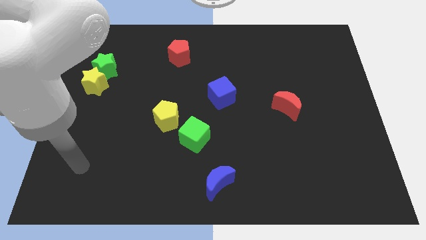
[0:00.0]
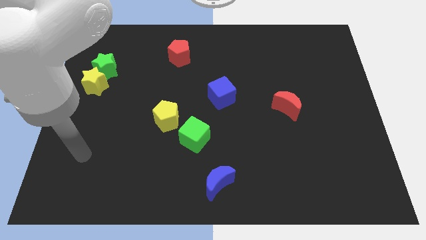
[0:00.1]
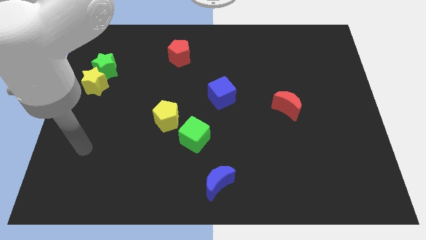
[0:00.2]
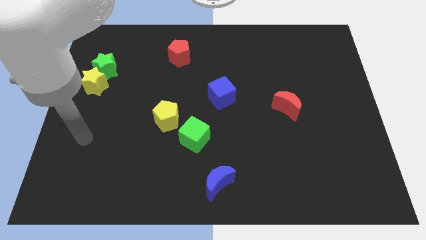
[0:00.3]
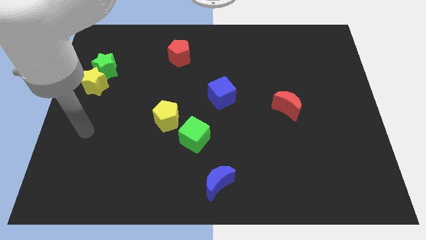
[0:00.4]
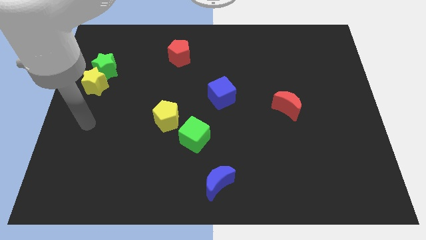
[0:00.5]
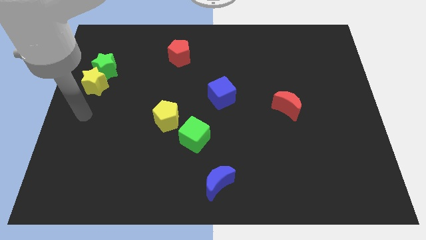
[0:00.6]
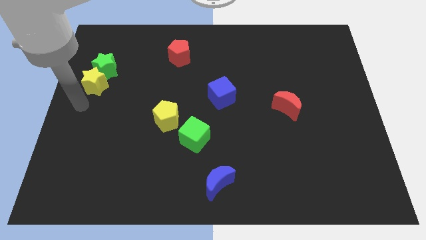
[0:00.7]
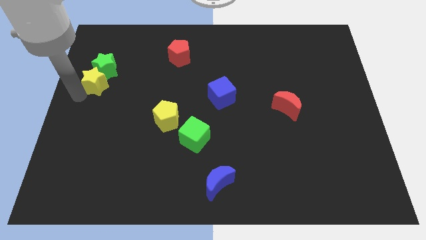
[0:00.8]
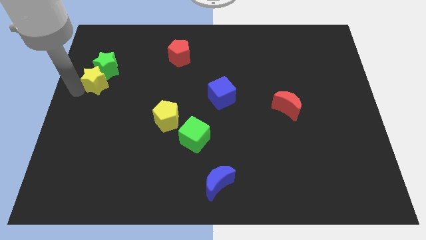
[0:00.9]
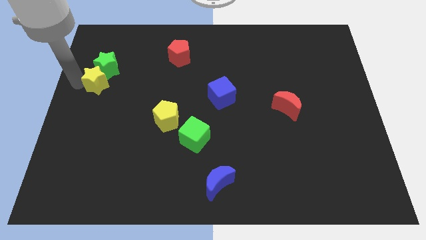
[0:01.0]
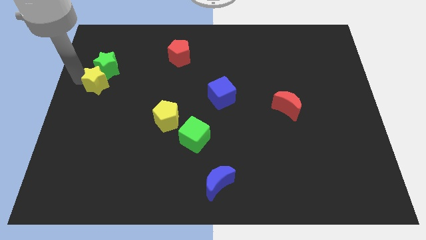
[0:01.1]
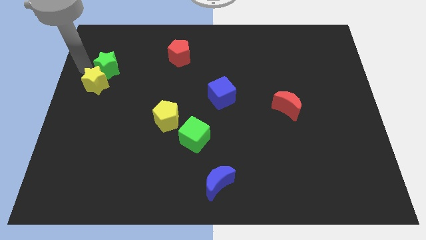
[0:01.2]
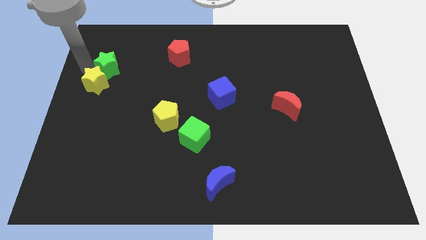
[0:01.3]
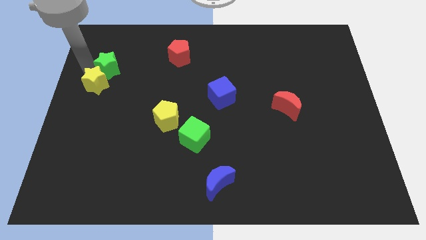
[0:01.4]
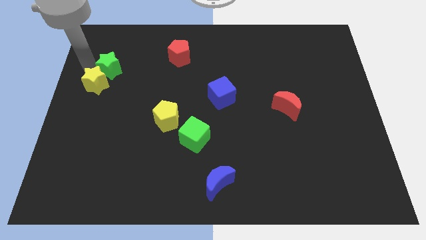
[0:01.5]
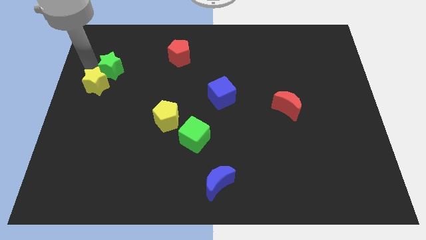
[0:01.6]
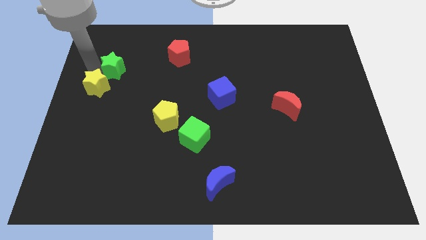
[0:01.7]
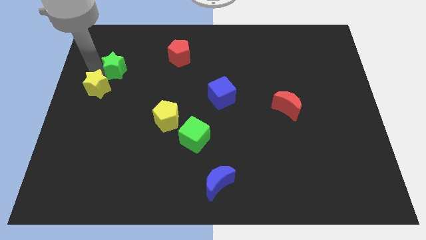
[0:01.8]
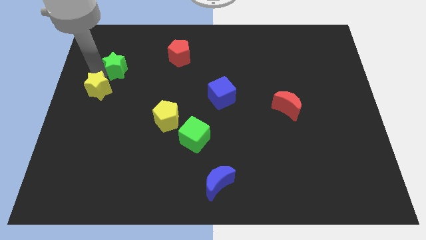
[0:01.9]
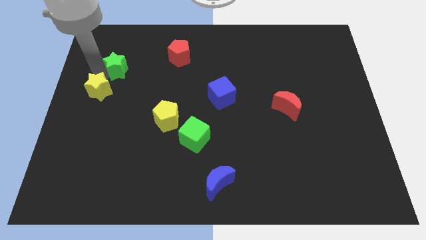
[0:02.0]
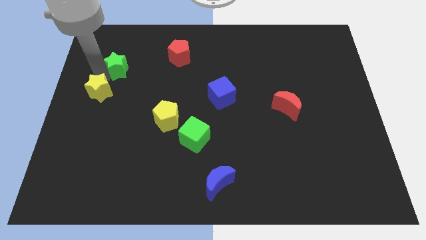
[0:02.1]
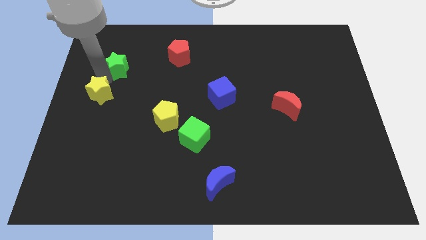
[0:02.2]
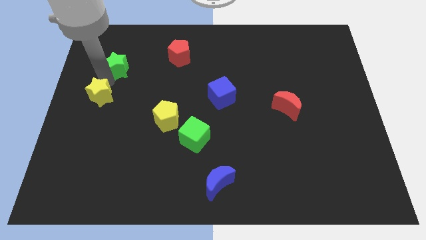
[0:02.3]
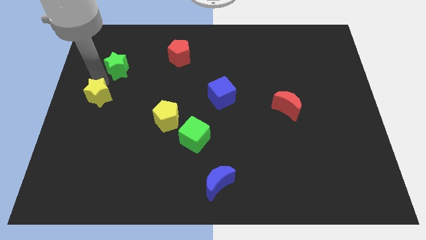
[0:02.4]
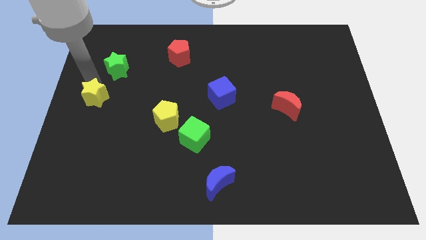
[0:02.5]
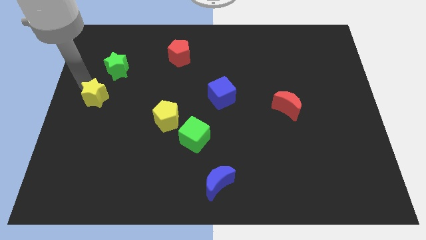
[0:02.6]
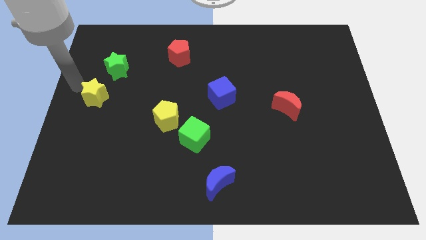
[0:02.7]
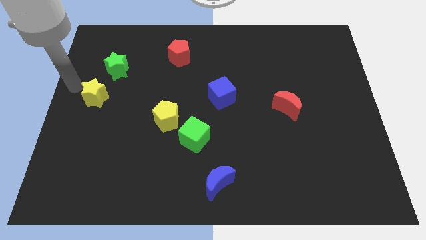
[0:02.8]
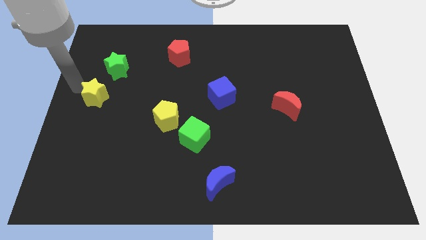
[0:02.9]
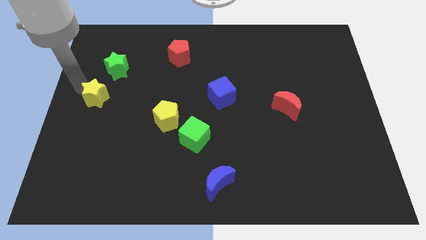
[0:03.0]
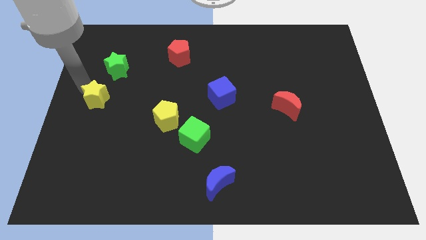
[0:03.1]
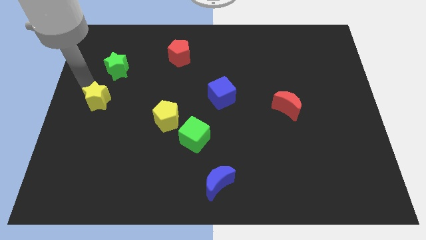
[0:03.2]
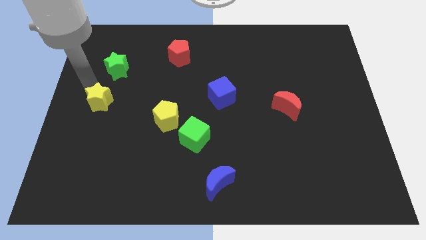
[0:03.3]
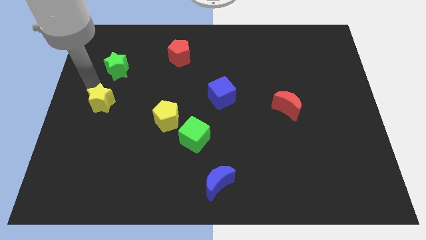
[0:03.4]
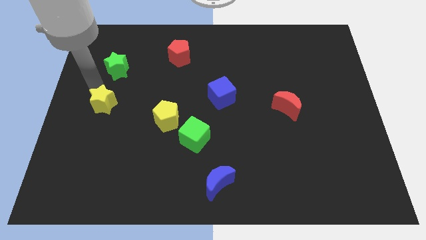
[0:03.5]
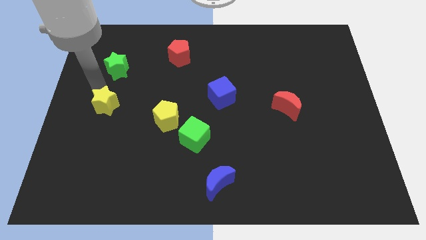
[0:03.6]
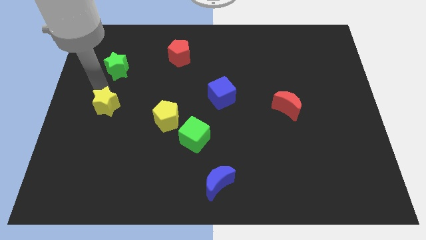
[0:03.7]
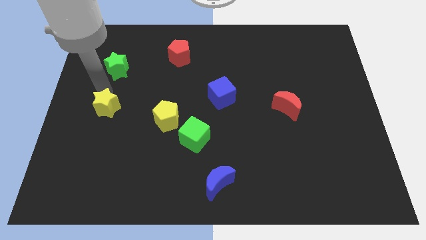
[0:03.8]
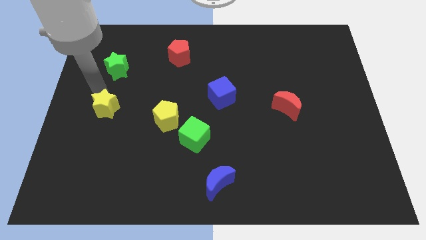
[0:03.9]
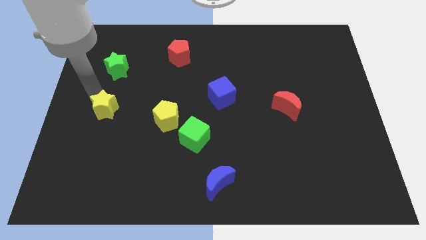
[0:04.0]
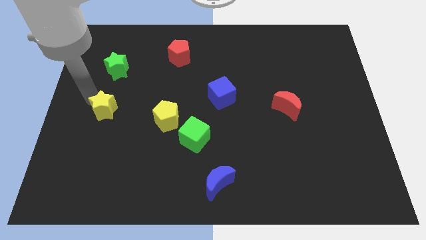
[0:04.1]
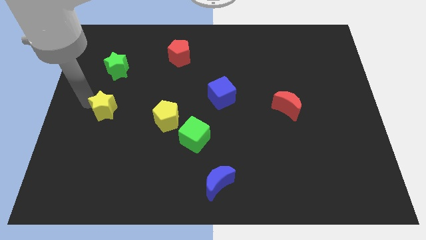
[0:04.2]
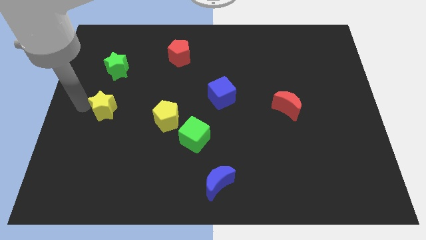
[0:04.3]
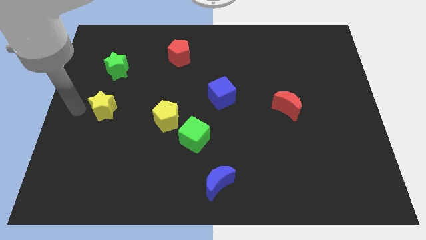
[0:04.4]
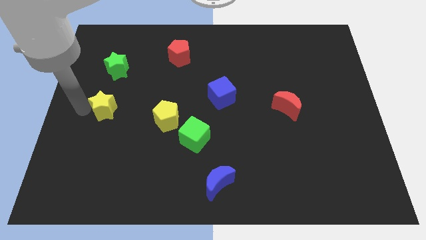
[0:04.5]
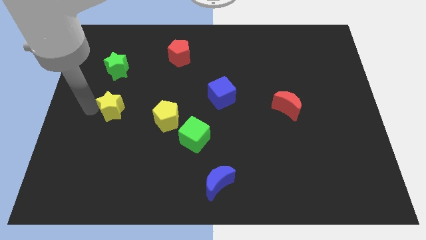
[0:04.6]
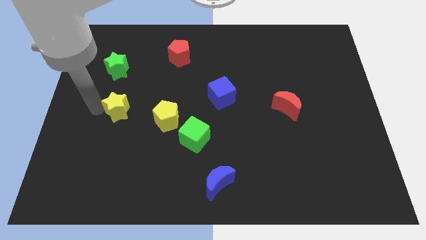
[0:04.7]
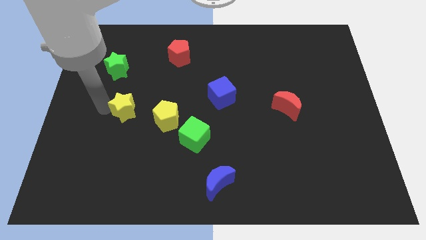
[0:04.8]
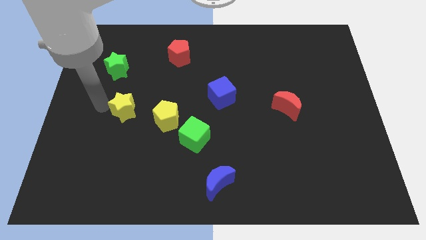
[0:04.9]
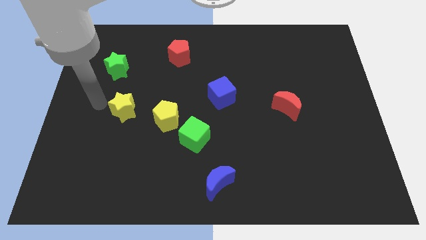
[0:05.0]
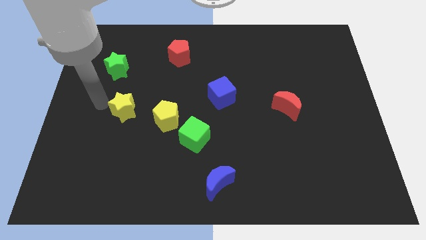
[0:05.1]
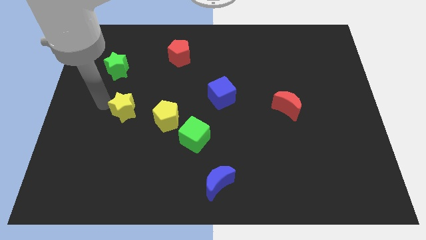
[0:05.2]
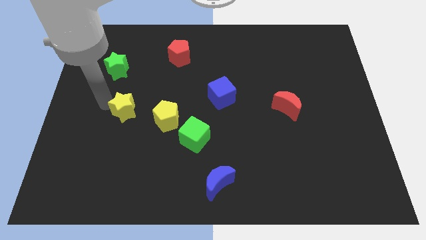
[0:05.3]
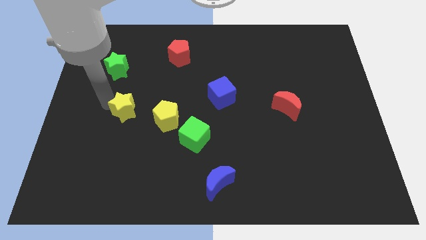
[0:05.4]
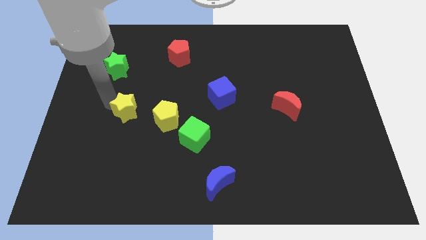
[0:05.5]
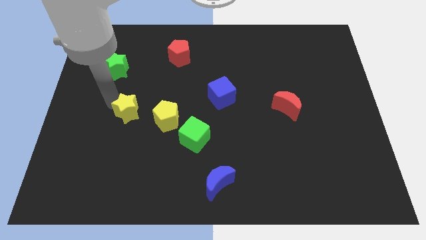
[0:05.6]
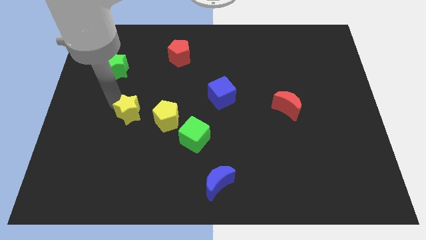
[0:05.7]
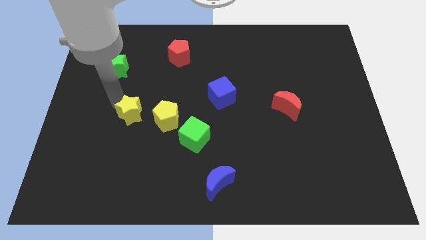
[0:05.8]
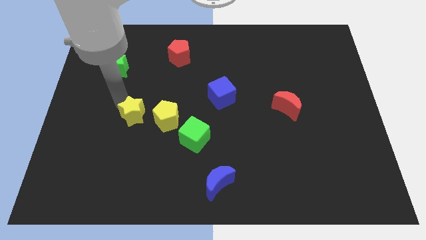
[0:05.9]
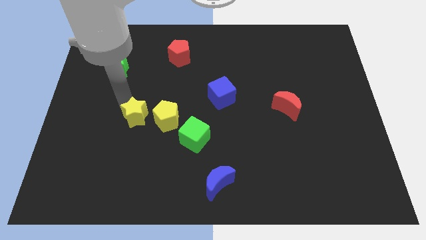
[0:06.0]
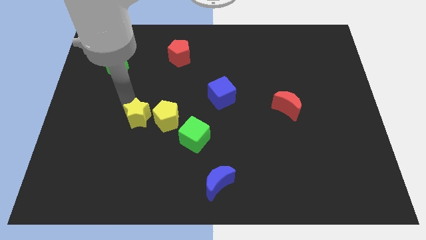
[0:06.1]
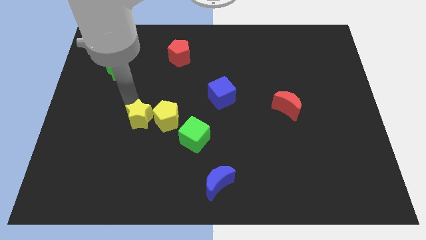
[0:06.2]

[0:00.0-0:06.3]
move the yellow star towards the yellow pentagon
